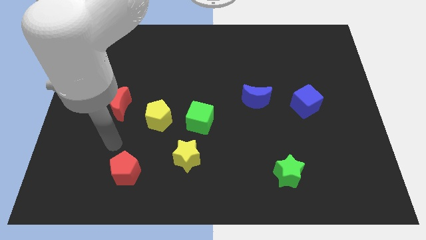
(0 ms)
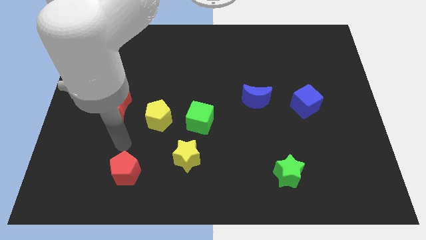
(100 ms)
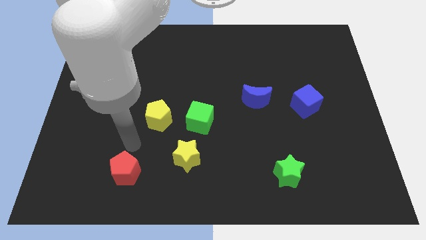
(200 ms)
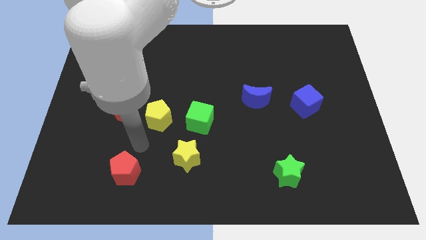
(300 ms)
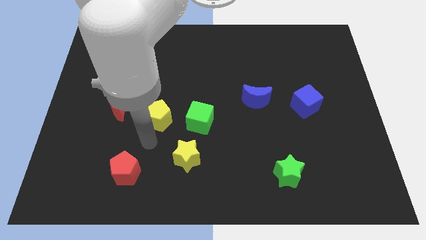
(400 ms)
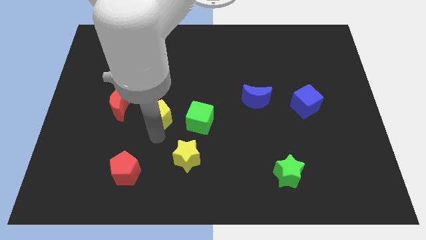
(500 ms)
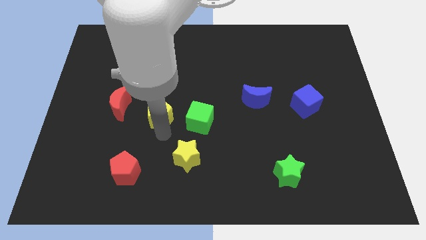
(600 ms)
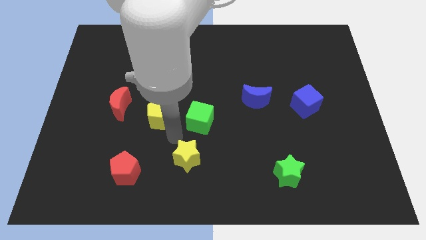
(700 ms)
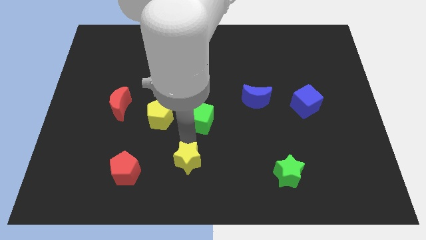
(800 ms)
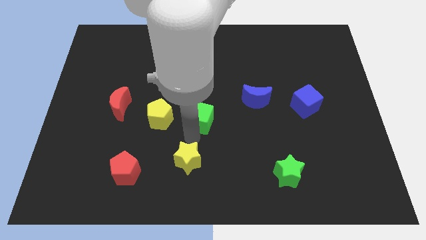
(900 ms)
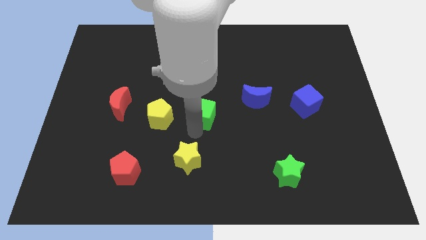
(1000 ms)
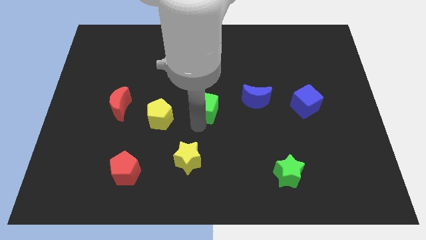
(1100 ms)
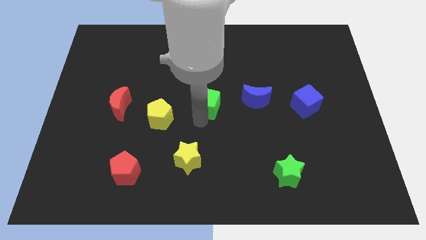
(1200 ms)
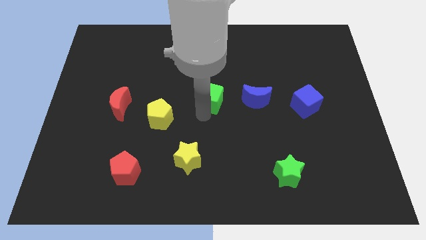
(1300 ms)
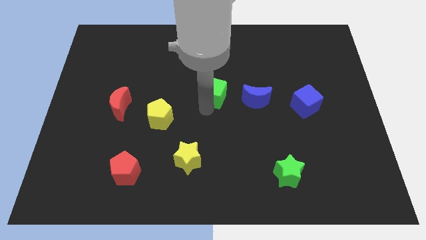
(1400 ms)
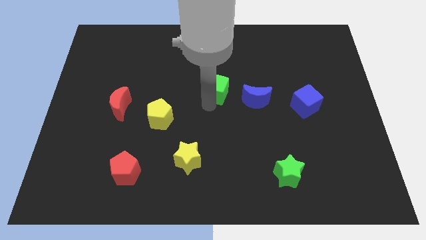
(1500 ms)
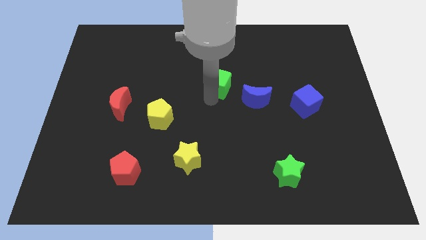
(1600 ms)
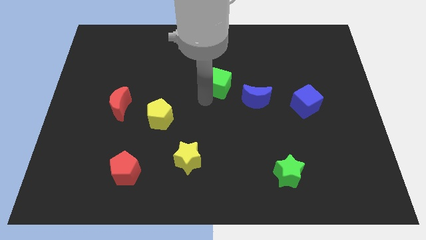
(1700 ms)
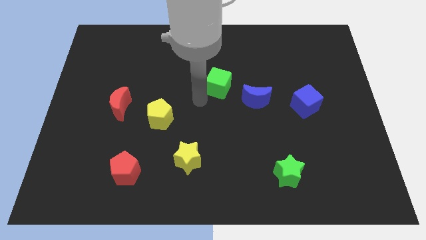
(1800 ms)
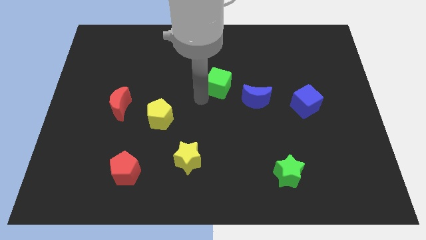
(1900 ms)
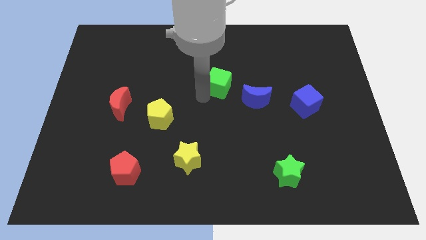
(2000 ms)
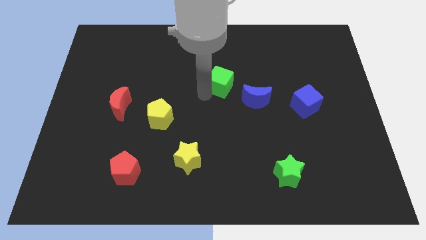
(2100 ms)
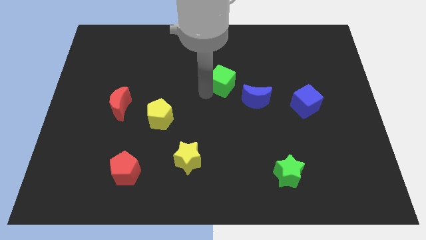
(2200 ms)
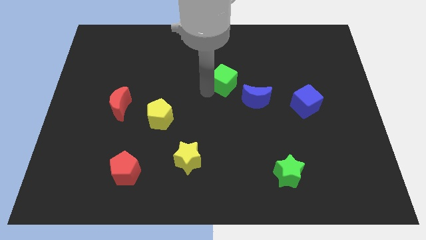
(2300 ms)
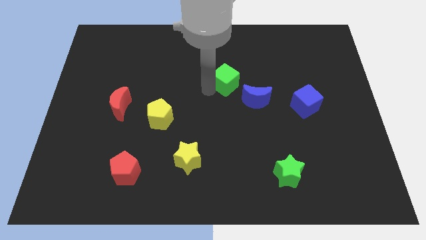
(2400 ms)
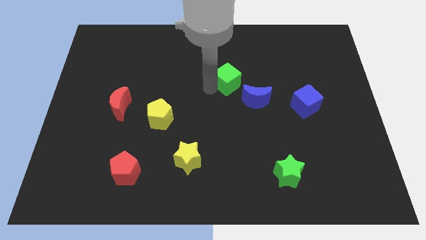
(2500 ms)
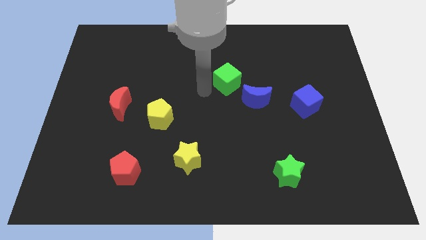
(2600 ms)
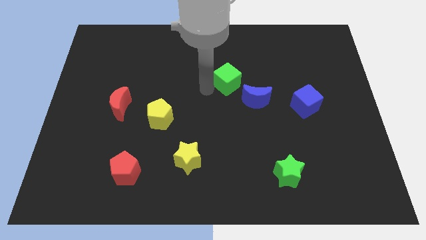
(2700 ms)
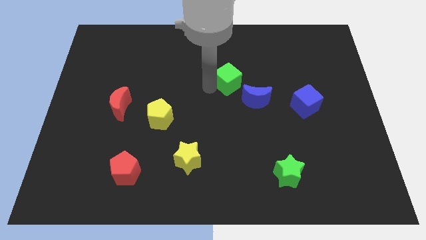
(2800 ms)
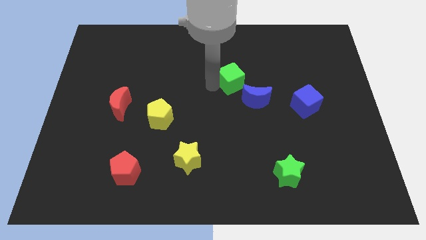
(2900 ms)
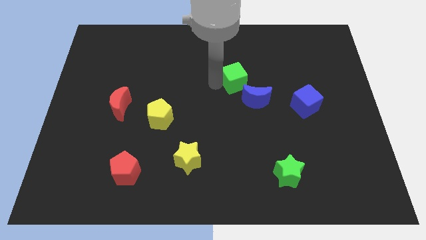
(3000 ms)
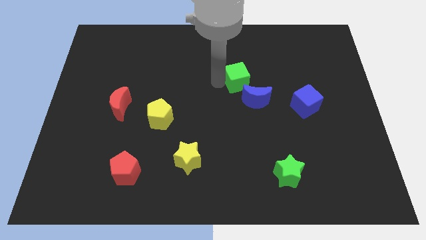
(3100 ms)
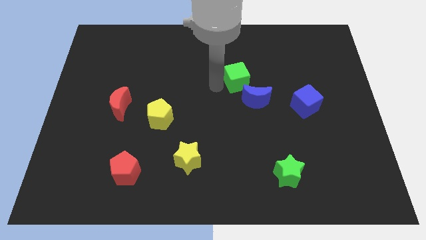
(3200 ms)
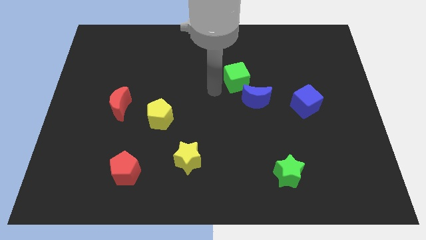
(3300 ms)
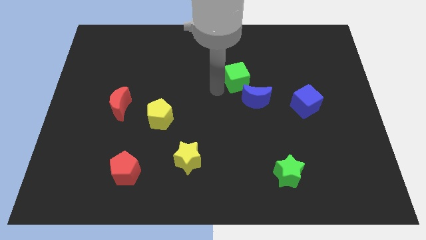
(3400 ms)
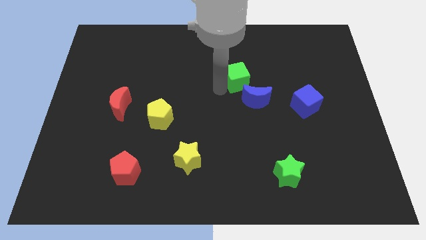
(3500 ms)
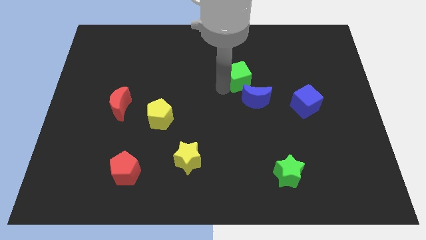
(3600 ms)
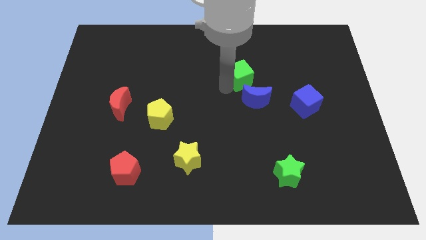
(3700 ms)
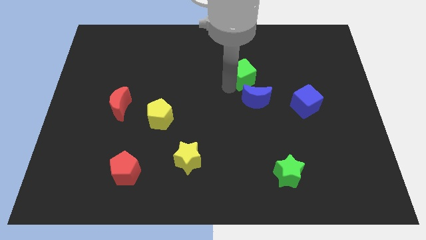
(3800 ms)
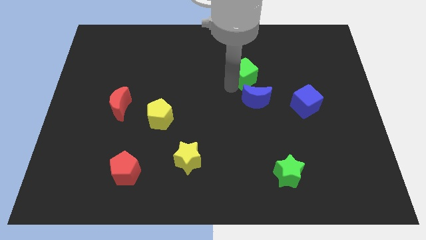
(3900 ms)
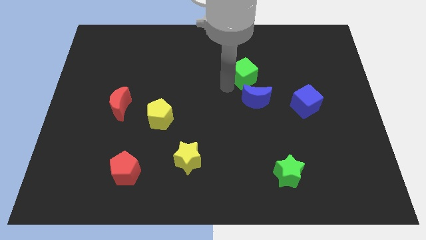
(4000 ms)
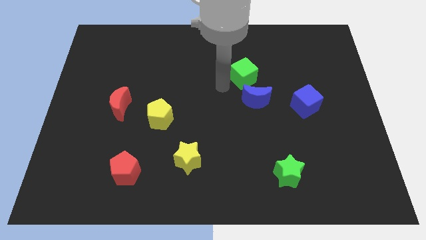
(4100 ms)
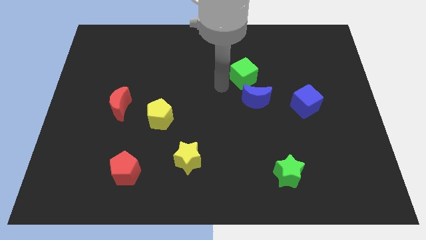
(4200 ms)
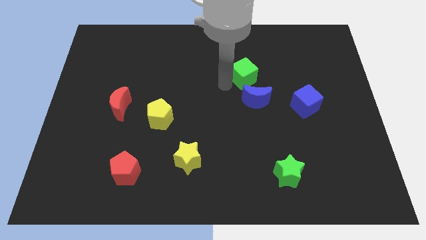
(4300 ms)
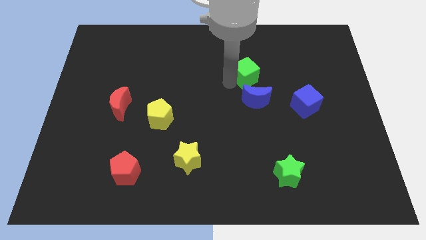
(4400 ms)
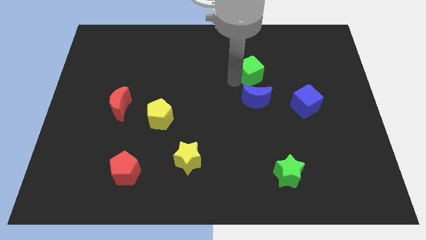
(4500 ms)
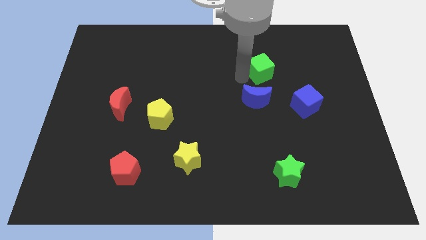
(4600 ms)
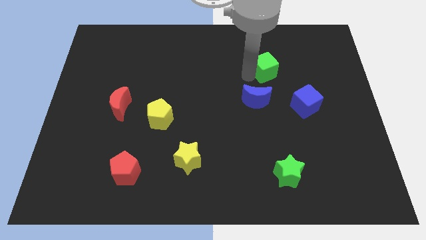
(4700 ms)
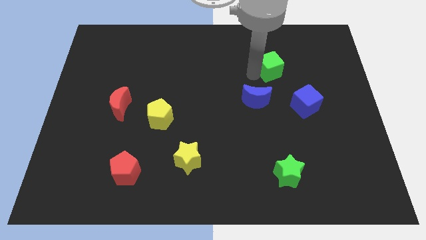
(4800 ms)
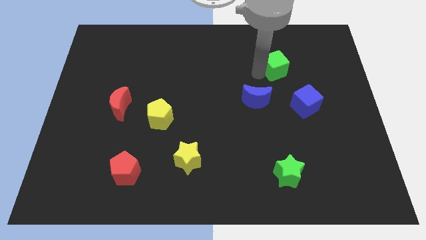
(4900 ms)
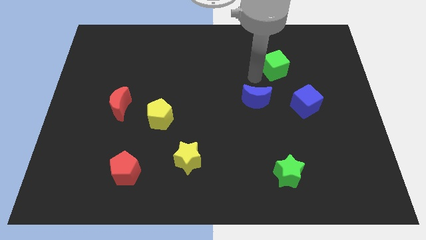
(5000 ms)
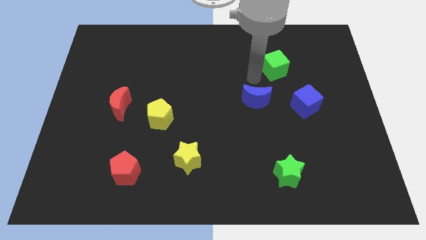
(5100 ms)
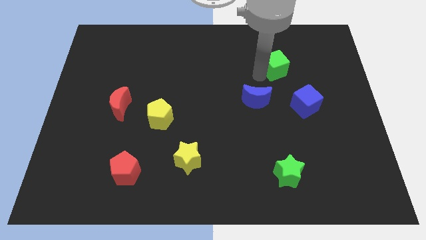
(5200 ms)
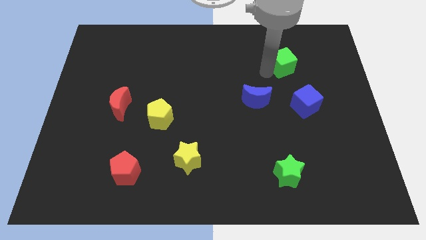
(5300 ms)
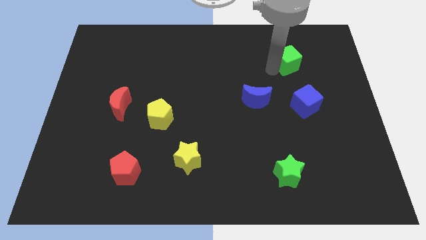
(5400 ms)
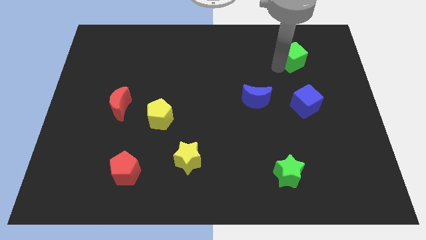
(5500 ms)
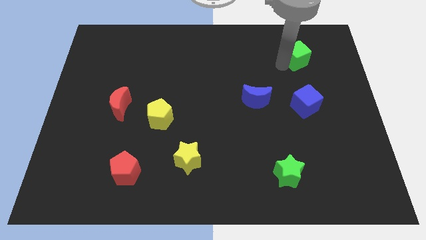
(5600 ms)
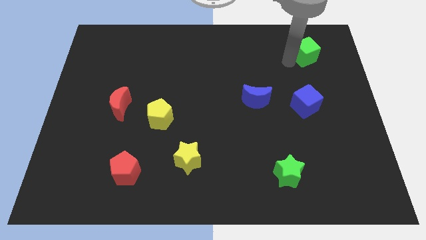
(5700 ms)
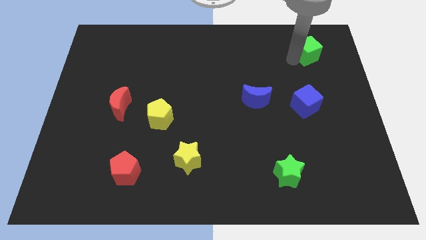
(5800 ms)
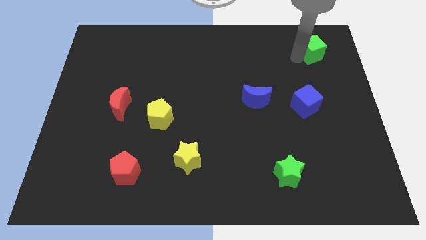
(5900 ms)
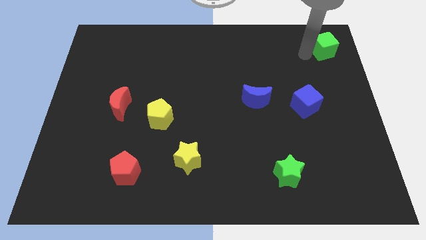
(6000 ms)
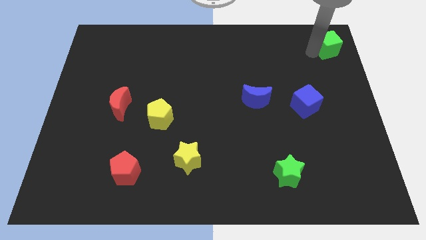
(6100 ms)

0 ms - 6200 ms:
move the green cube to the upper right corner

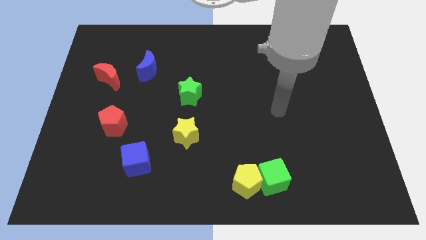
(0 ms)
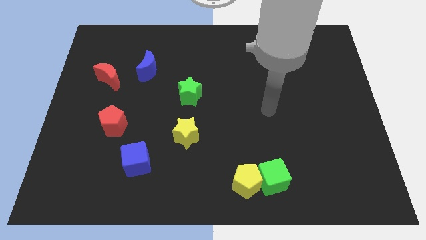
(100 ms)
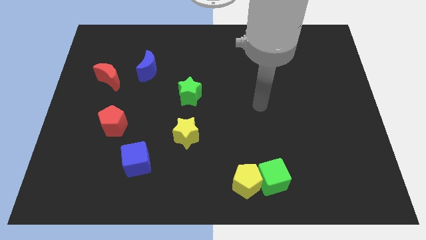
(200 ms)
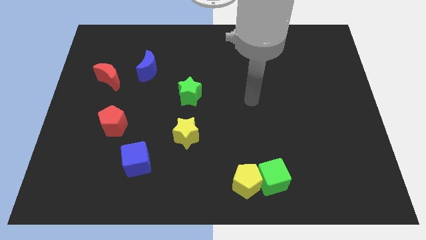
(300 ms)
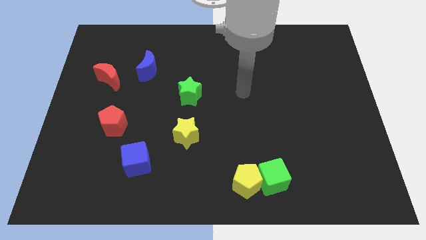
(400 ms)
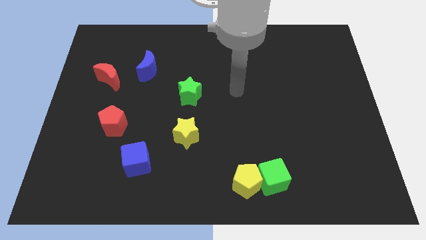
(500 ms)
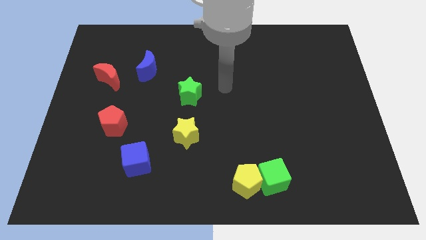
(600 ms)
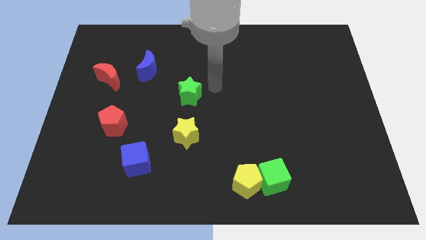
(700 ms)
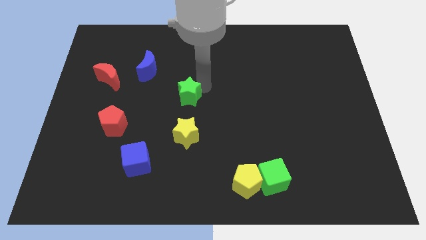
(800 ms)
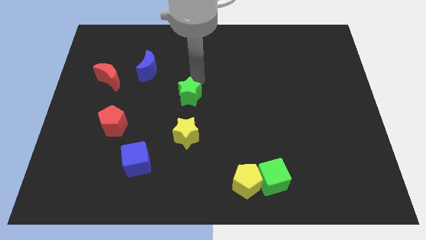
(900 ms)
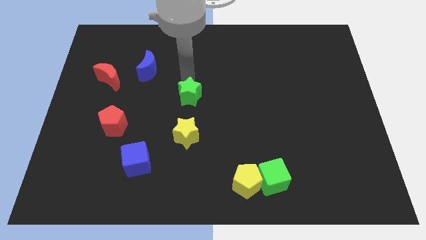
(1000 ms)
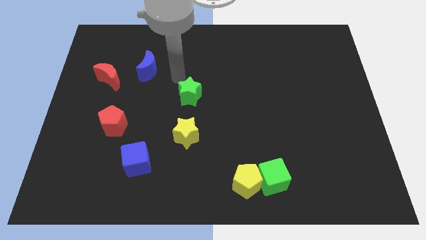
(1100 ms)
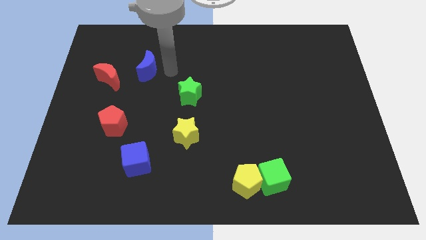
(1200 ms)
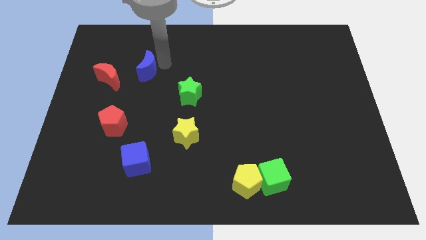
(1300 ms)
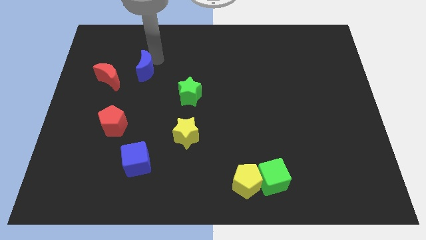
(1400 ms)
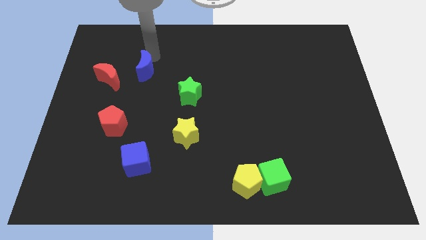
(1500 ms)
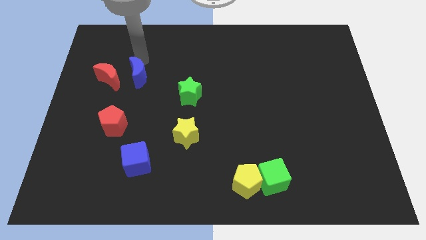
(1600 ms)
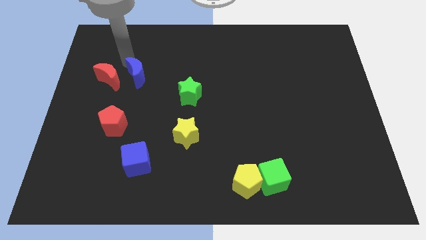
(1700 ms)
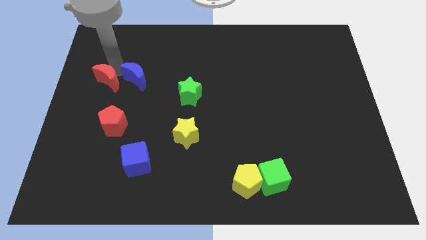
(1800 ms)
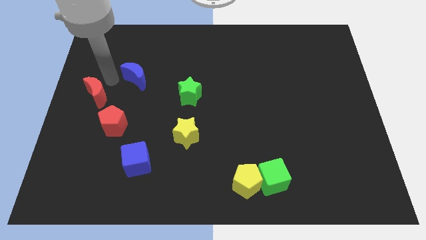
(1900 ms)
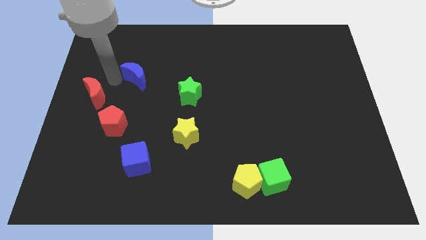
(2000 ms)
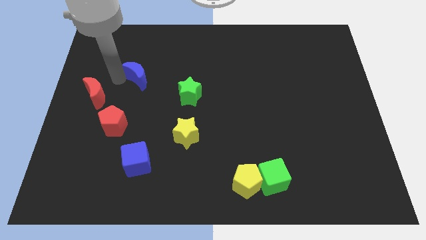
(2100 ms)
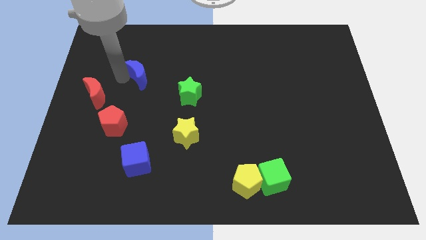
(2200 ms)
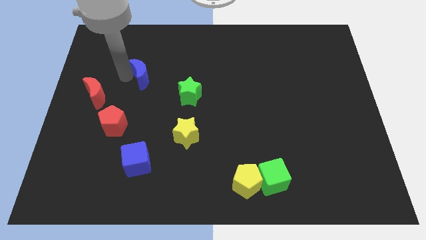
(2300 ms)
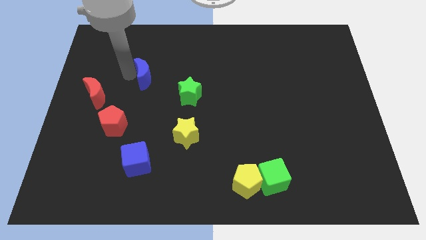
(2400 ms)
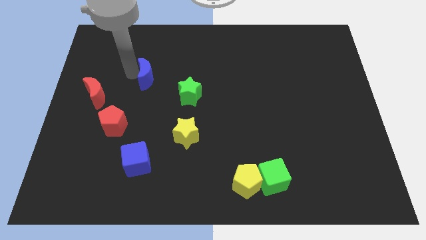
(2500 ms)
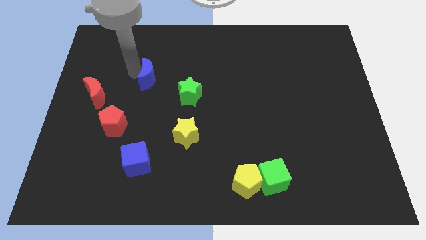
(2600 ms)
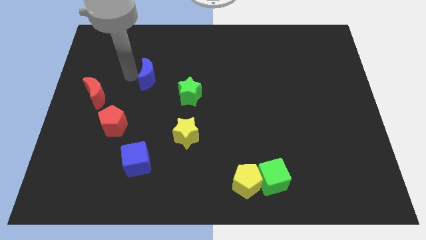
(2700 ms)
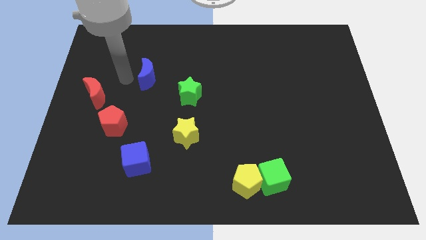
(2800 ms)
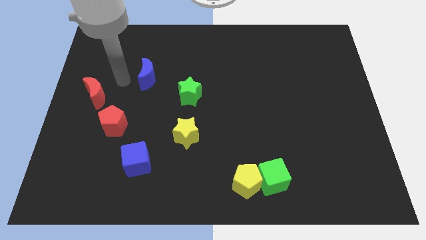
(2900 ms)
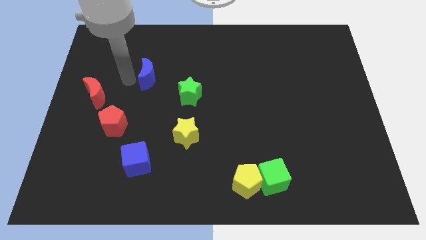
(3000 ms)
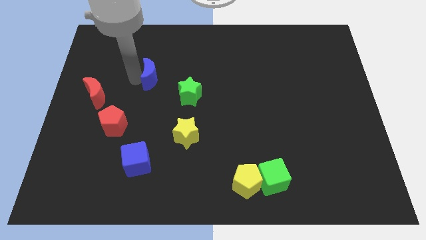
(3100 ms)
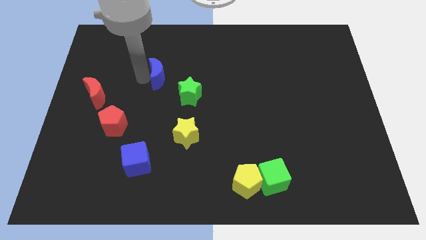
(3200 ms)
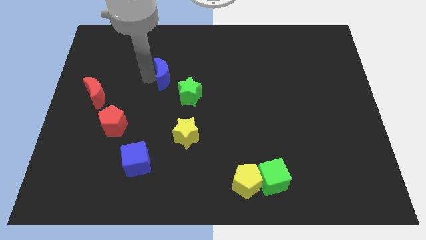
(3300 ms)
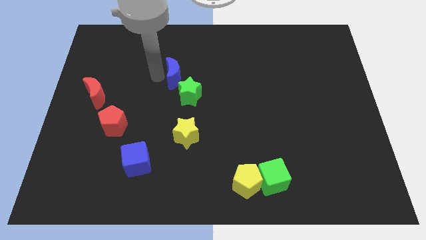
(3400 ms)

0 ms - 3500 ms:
put the blue moon to the middle of the board
